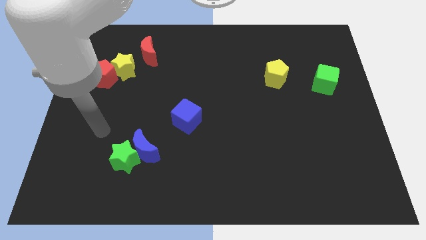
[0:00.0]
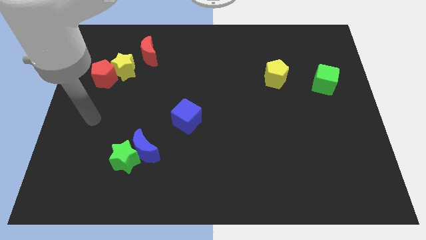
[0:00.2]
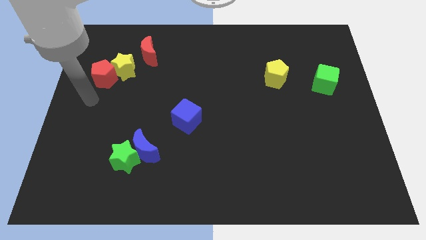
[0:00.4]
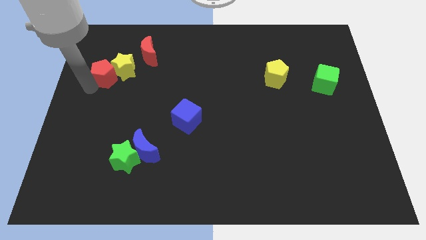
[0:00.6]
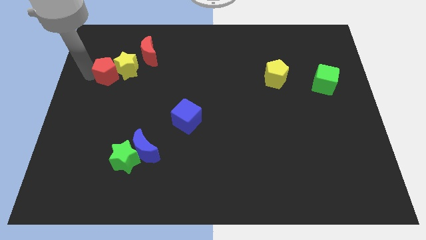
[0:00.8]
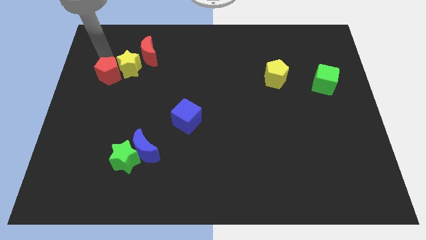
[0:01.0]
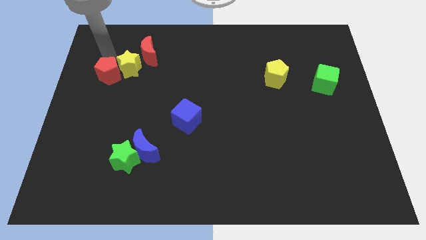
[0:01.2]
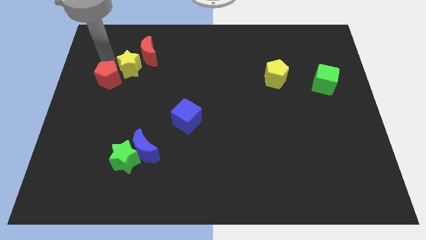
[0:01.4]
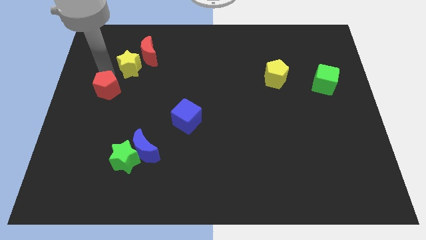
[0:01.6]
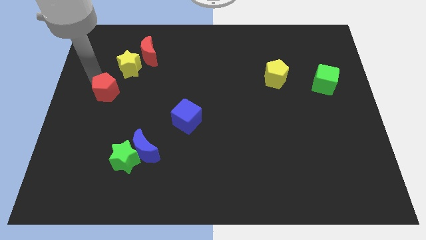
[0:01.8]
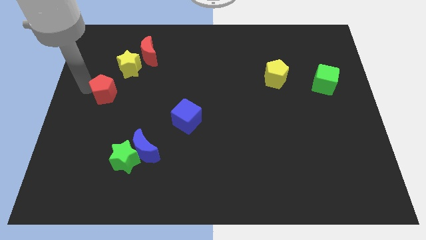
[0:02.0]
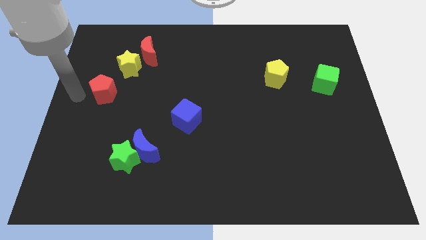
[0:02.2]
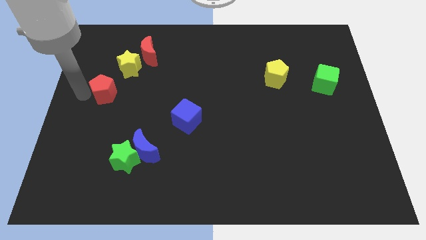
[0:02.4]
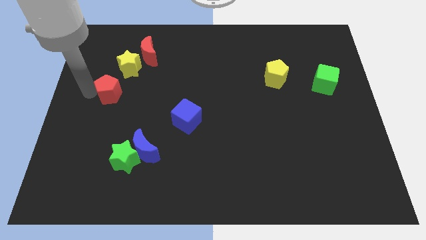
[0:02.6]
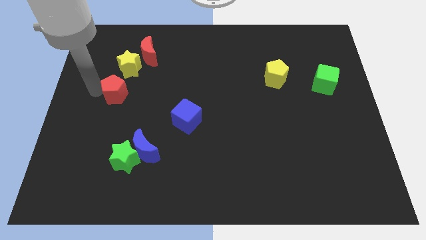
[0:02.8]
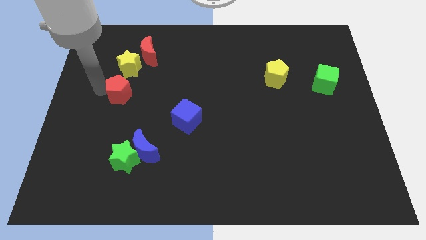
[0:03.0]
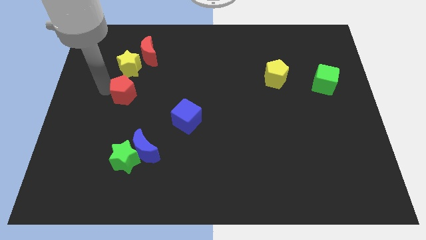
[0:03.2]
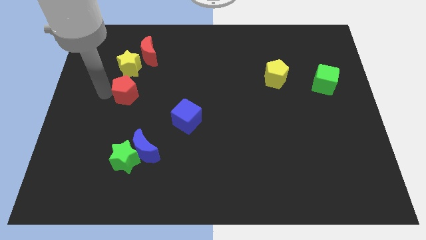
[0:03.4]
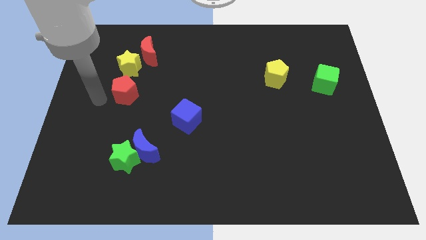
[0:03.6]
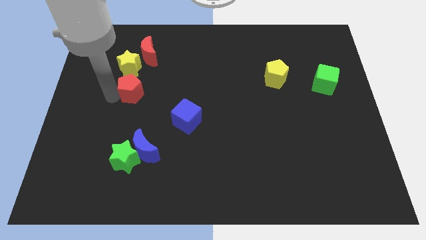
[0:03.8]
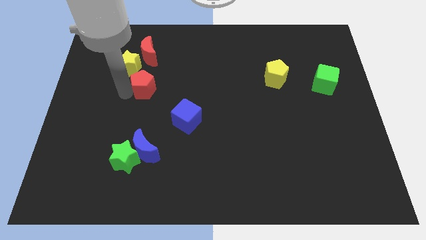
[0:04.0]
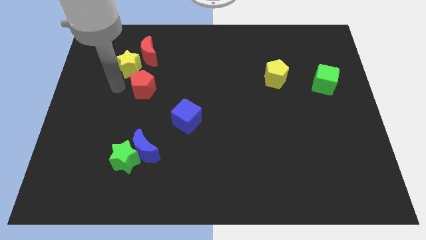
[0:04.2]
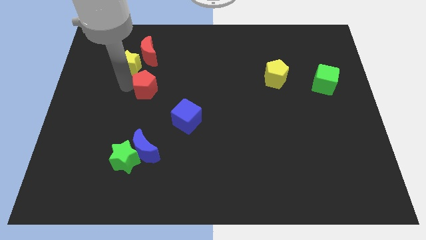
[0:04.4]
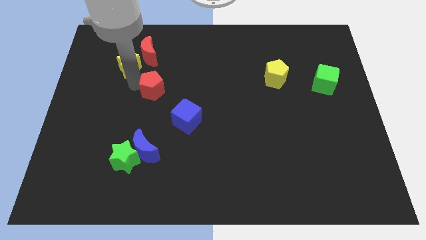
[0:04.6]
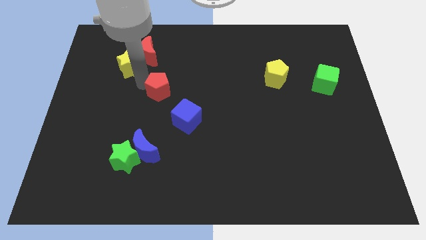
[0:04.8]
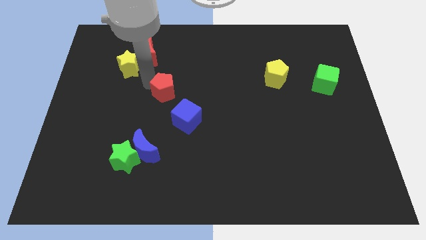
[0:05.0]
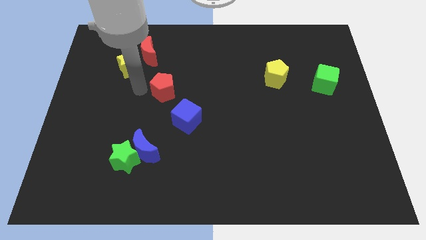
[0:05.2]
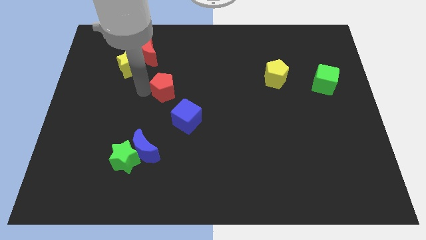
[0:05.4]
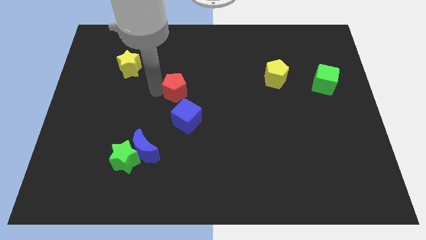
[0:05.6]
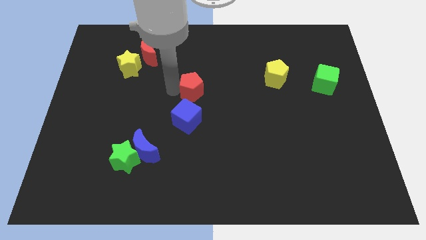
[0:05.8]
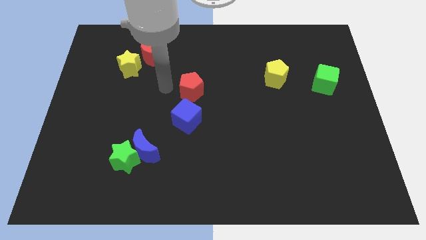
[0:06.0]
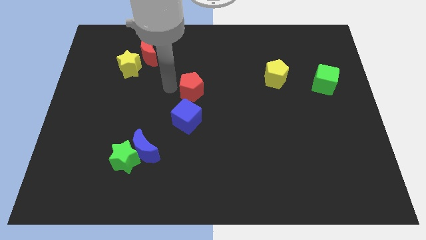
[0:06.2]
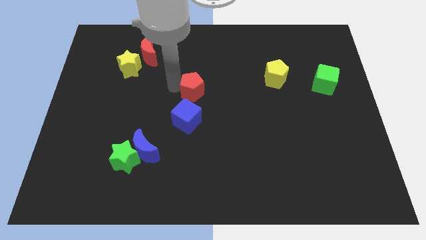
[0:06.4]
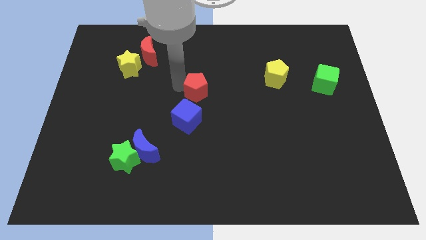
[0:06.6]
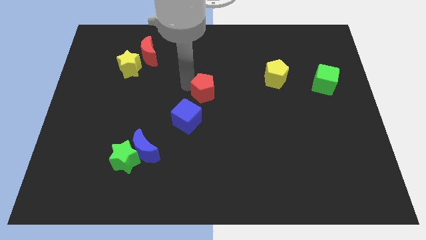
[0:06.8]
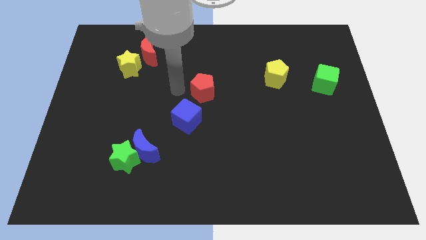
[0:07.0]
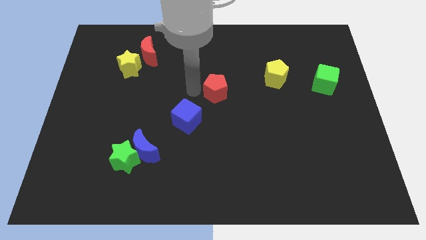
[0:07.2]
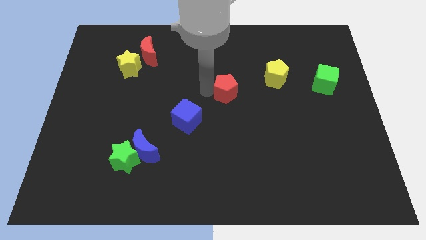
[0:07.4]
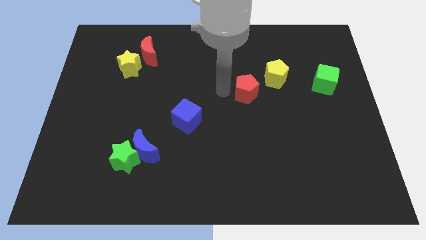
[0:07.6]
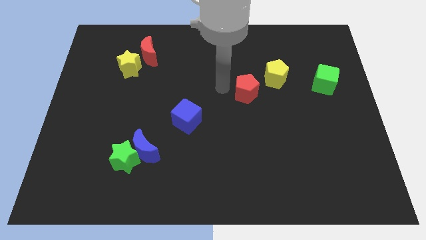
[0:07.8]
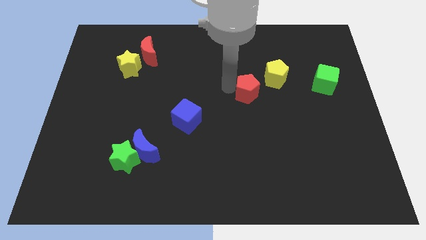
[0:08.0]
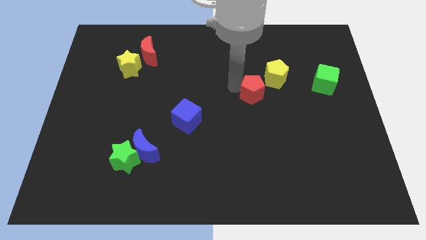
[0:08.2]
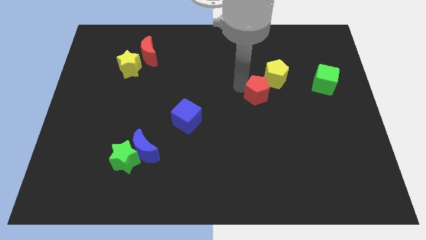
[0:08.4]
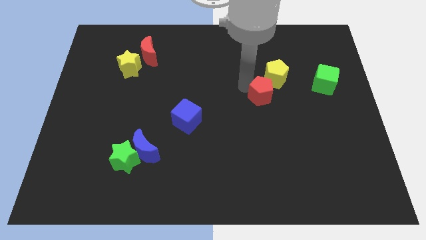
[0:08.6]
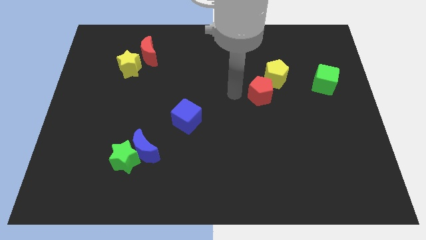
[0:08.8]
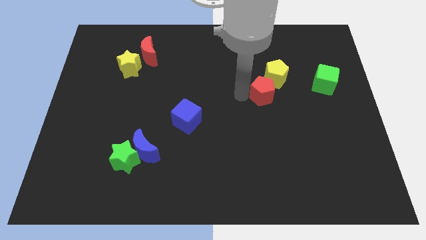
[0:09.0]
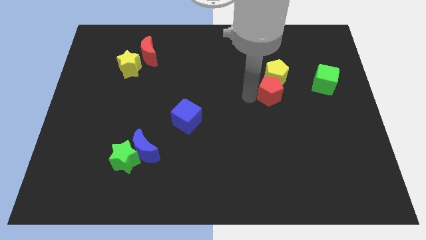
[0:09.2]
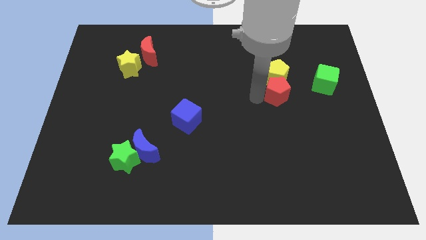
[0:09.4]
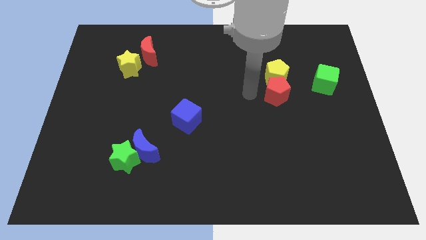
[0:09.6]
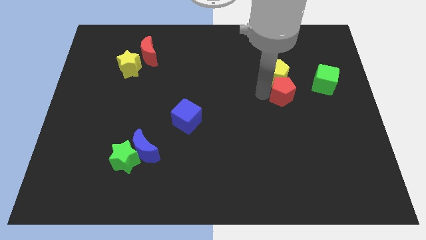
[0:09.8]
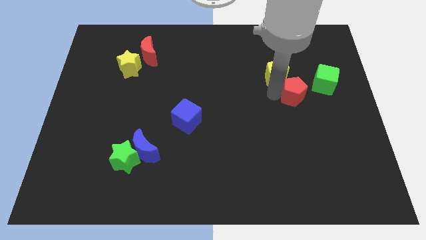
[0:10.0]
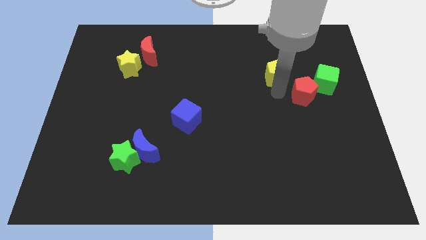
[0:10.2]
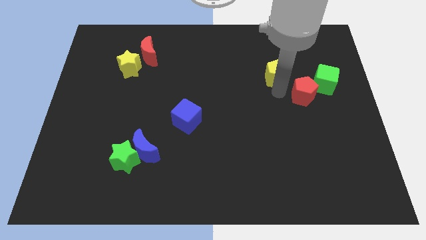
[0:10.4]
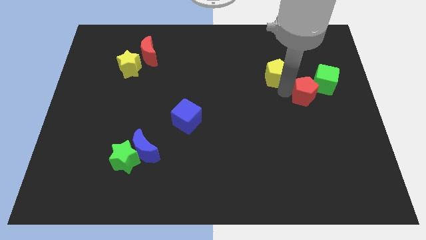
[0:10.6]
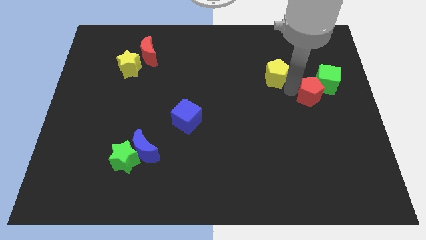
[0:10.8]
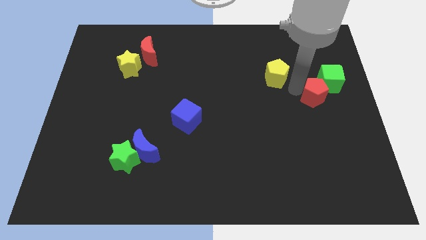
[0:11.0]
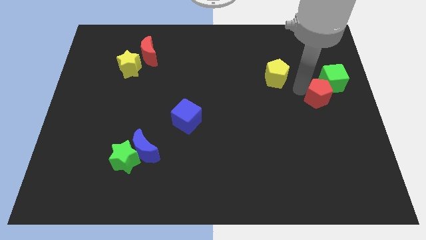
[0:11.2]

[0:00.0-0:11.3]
move the red pentagon to the right side of the board

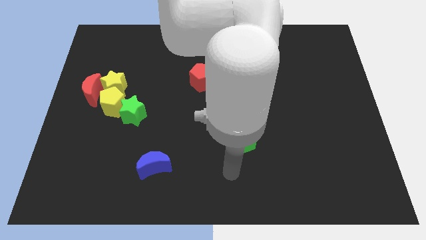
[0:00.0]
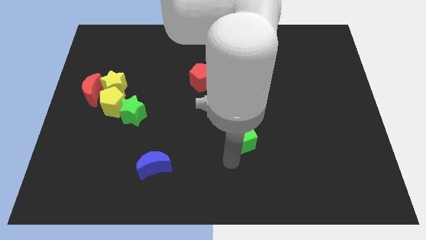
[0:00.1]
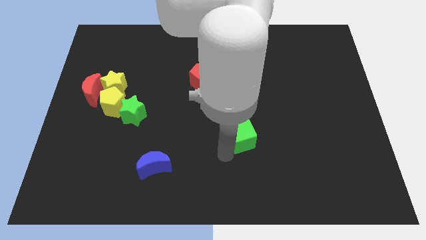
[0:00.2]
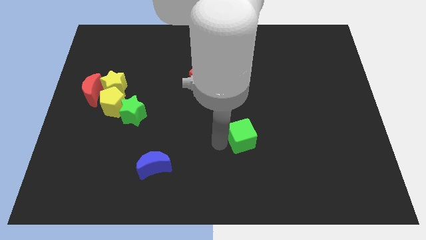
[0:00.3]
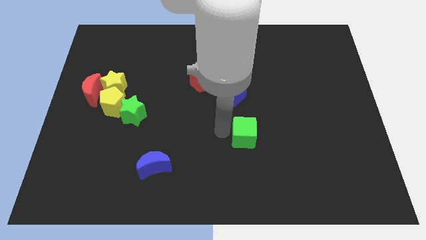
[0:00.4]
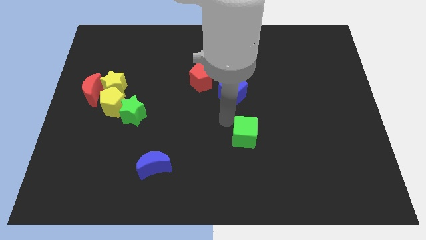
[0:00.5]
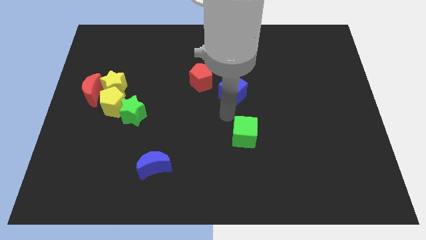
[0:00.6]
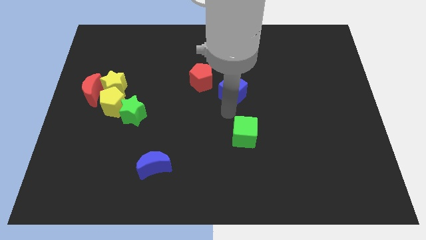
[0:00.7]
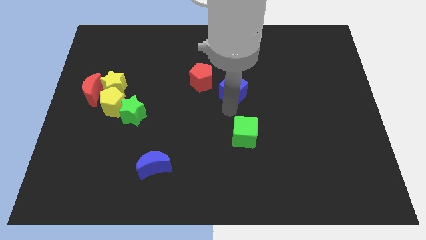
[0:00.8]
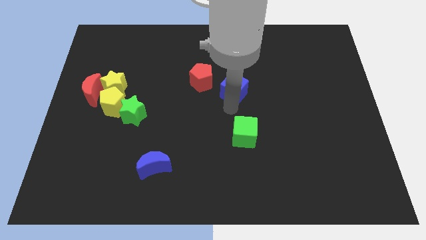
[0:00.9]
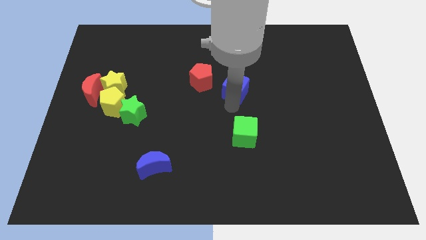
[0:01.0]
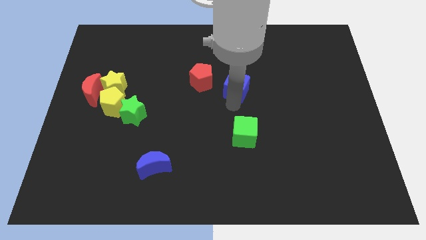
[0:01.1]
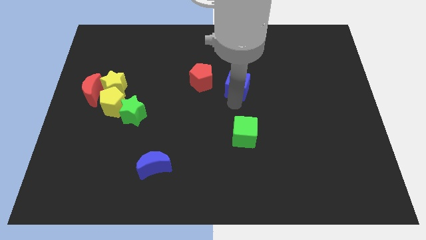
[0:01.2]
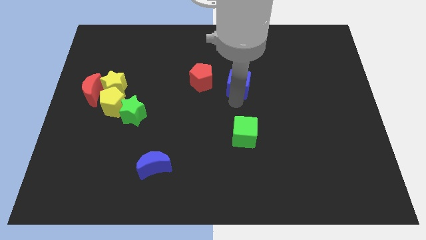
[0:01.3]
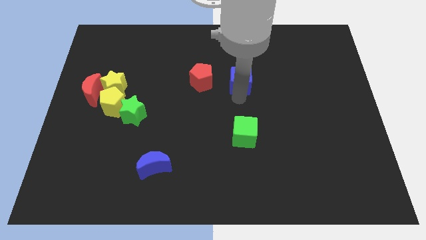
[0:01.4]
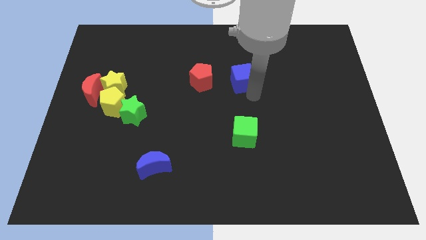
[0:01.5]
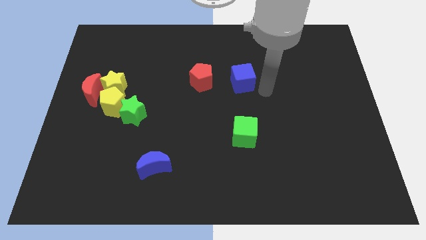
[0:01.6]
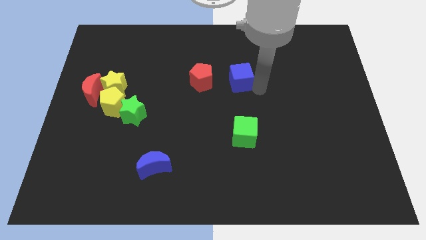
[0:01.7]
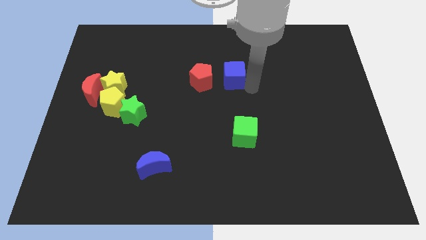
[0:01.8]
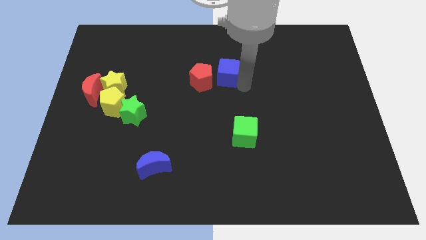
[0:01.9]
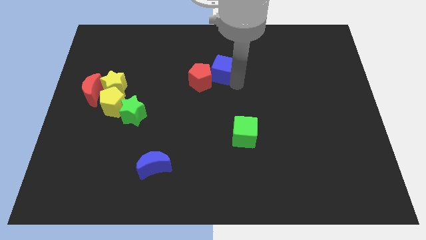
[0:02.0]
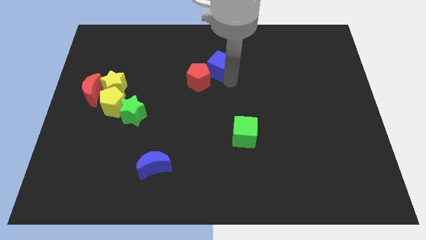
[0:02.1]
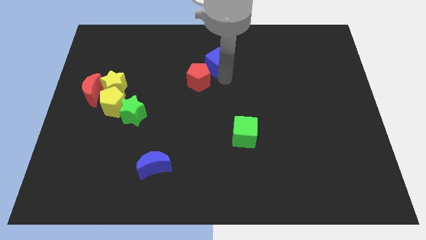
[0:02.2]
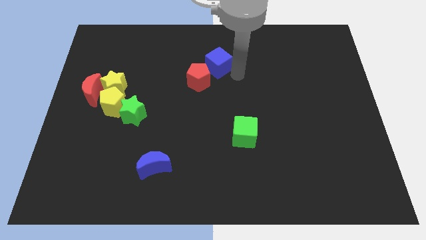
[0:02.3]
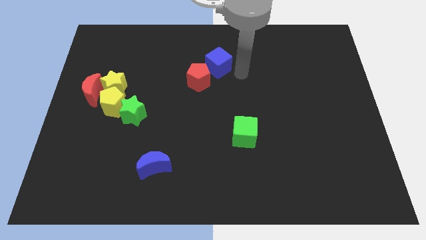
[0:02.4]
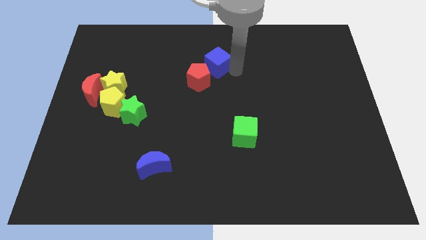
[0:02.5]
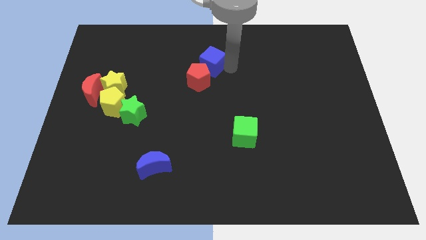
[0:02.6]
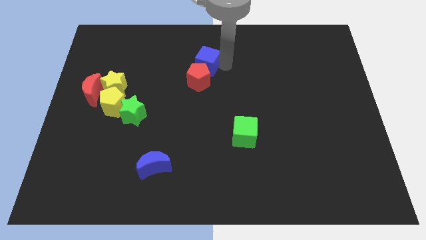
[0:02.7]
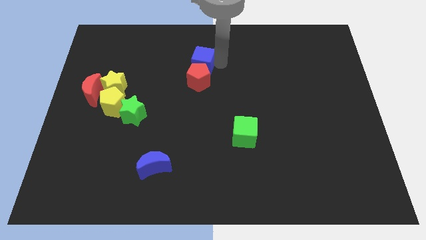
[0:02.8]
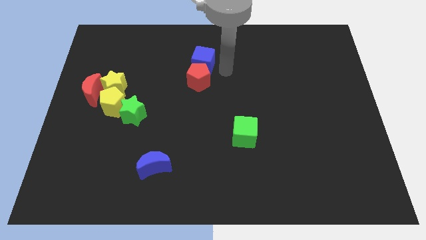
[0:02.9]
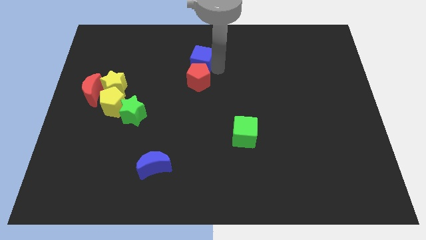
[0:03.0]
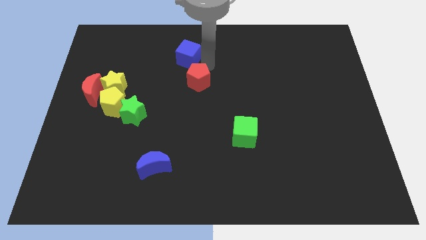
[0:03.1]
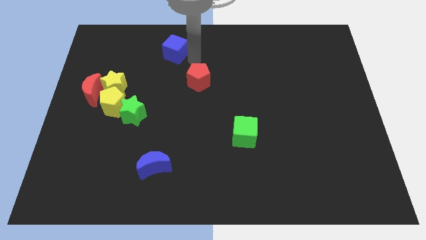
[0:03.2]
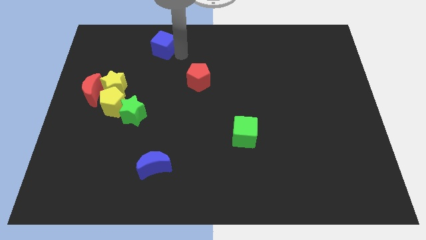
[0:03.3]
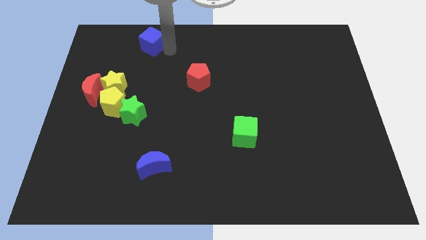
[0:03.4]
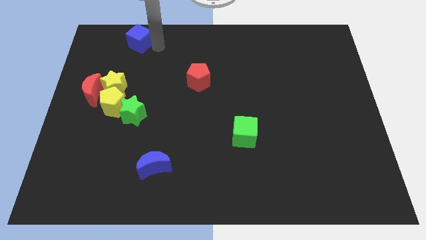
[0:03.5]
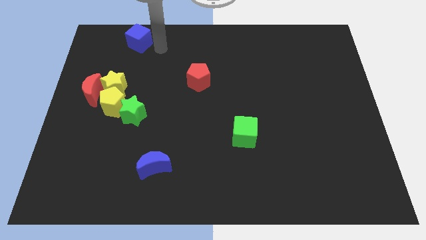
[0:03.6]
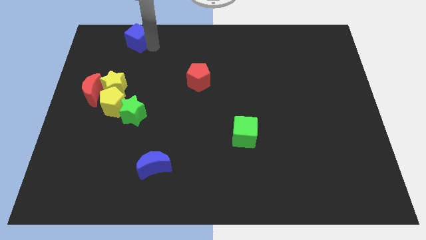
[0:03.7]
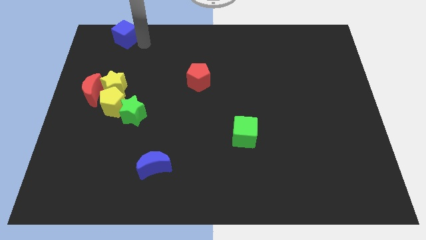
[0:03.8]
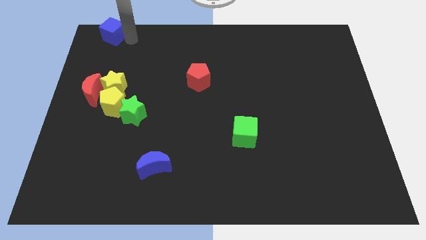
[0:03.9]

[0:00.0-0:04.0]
push the blue cube to the upper left corner
